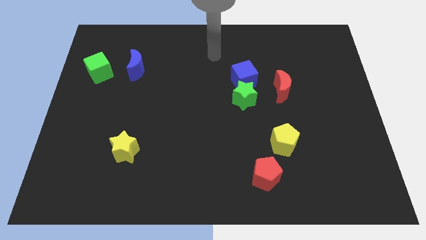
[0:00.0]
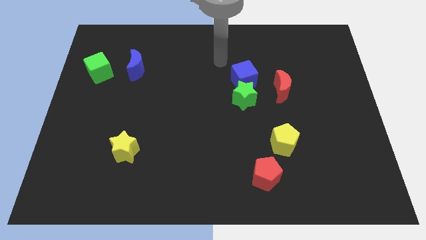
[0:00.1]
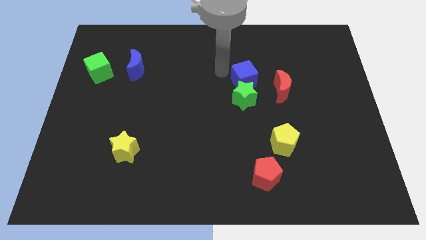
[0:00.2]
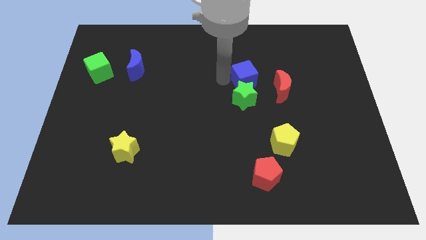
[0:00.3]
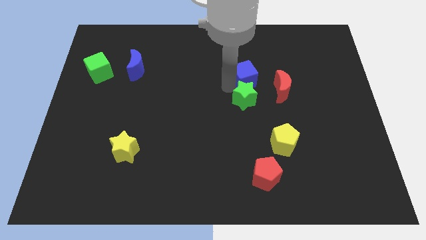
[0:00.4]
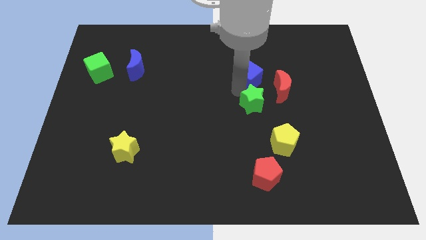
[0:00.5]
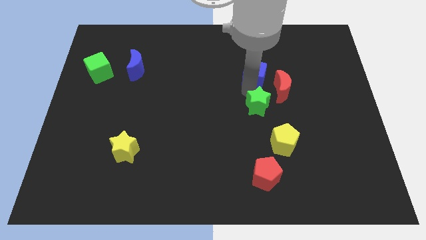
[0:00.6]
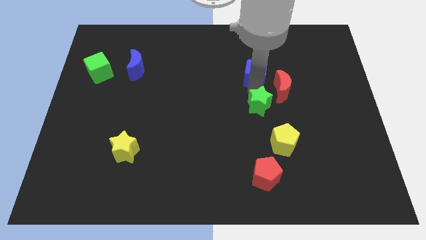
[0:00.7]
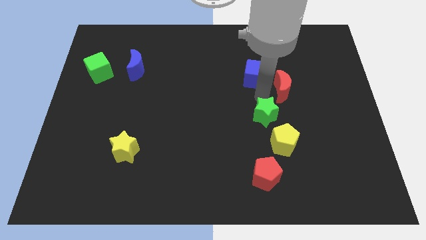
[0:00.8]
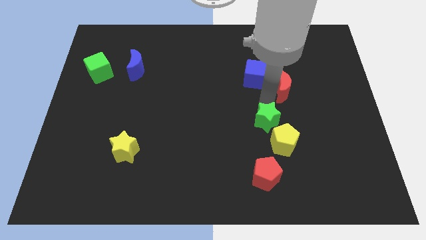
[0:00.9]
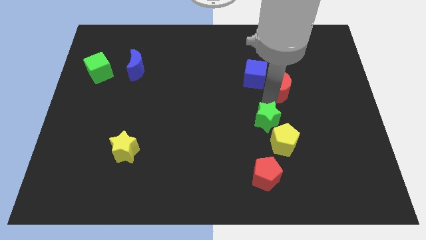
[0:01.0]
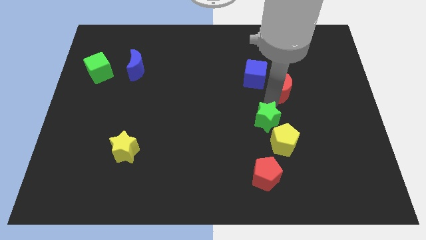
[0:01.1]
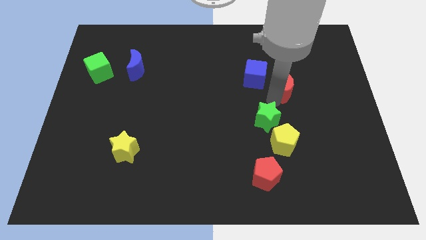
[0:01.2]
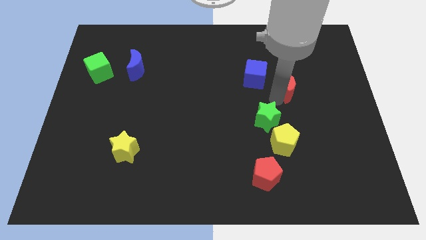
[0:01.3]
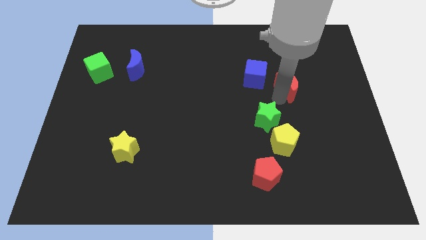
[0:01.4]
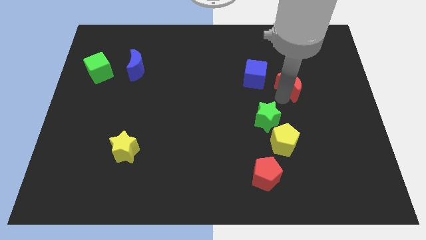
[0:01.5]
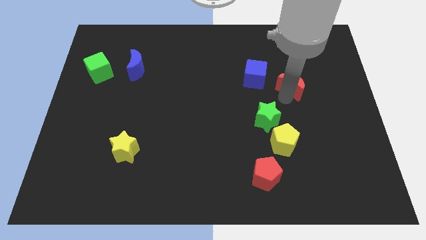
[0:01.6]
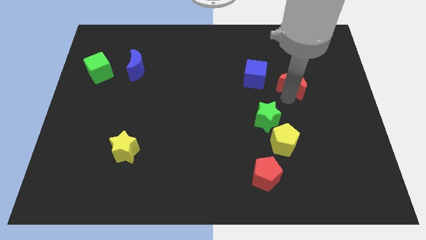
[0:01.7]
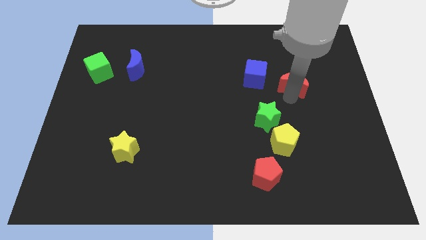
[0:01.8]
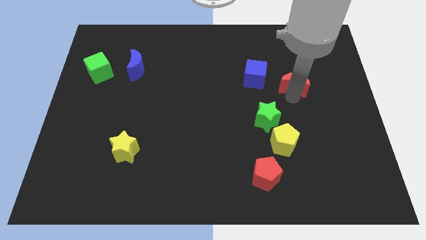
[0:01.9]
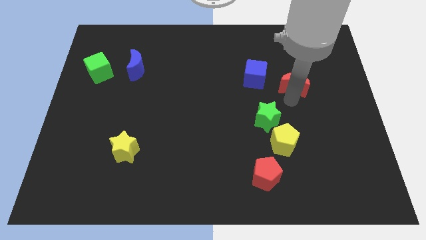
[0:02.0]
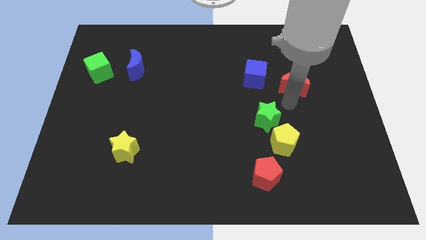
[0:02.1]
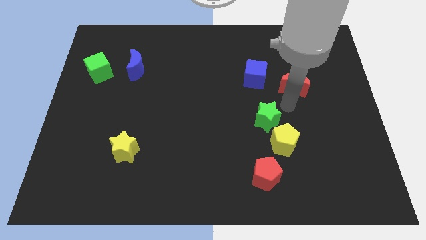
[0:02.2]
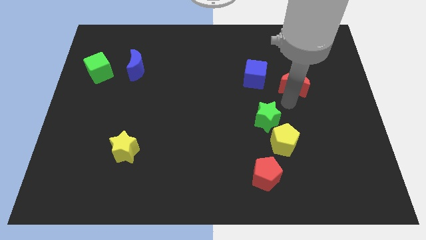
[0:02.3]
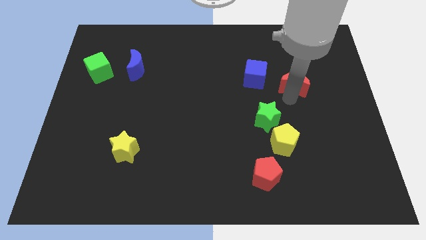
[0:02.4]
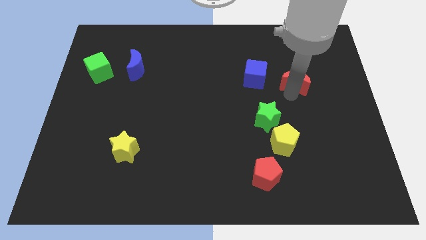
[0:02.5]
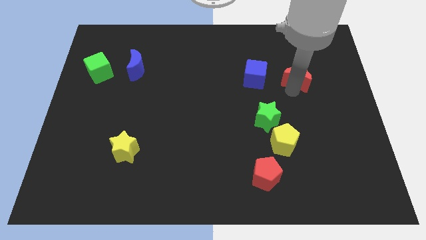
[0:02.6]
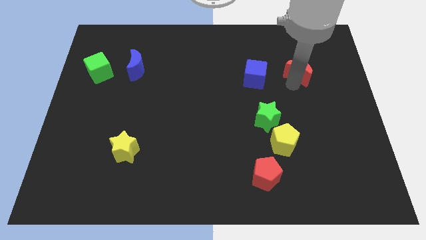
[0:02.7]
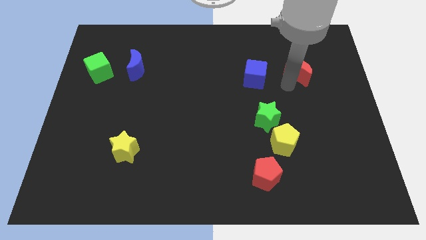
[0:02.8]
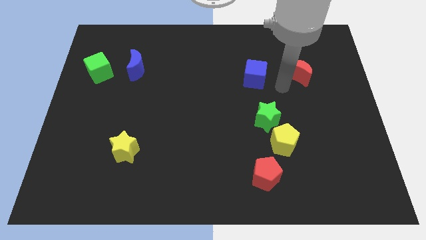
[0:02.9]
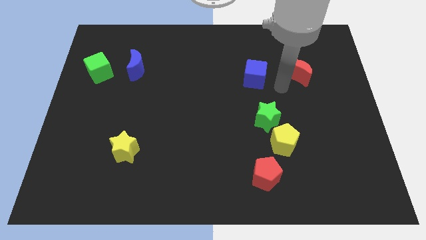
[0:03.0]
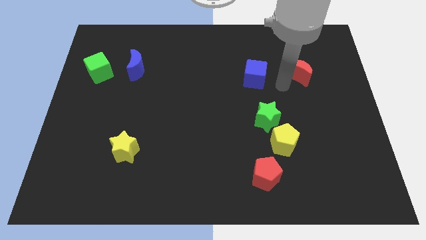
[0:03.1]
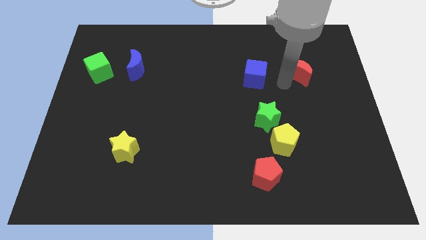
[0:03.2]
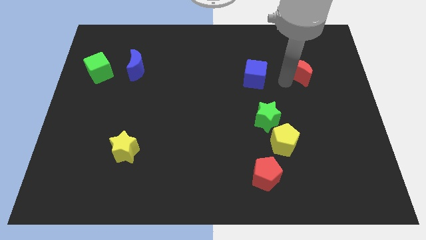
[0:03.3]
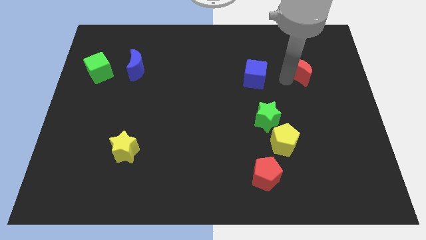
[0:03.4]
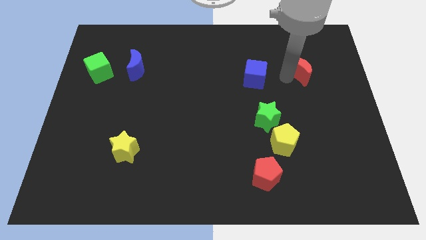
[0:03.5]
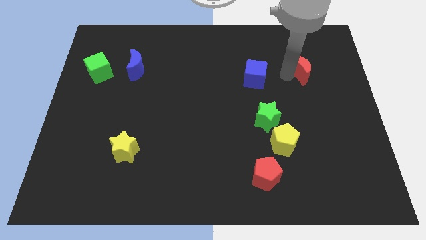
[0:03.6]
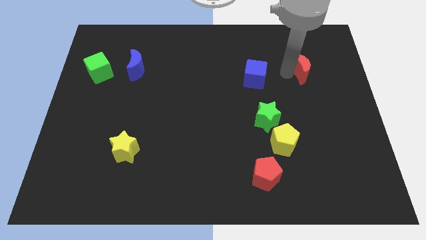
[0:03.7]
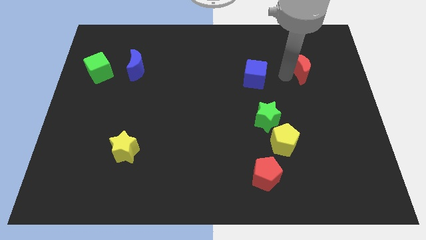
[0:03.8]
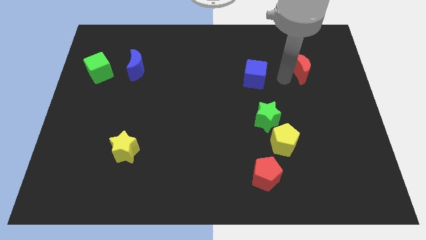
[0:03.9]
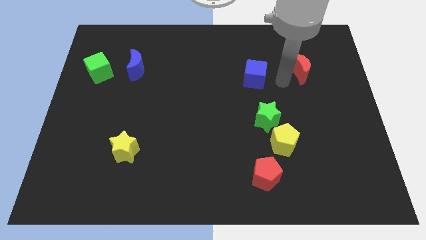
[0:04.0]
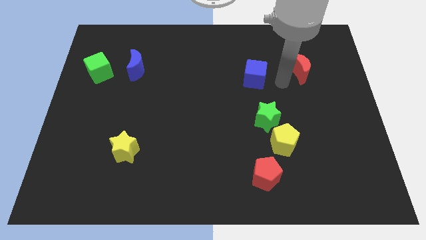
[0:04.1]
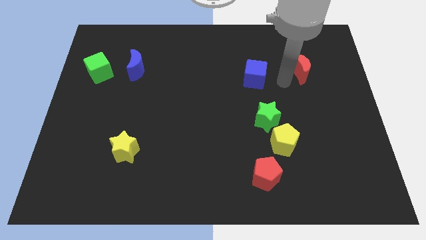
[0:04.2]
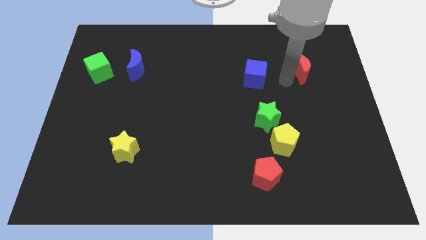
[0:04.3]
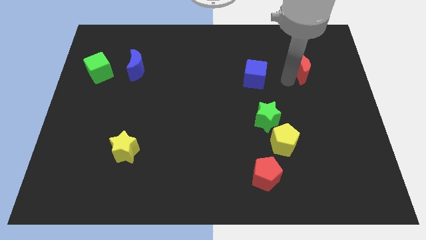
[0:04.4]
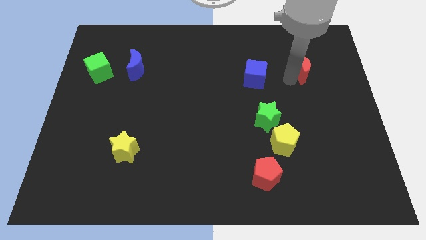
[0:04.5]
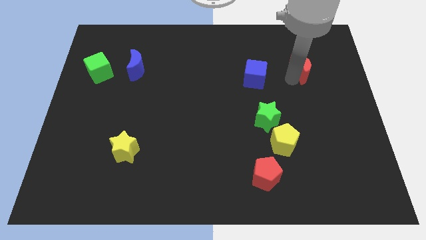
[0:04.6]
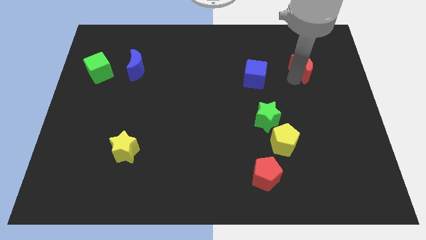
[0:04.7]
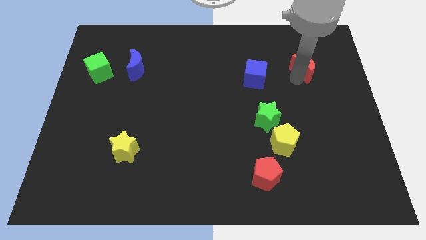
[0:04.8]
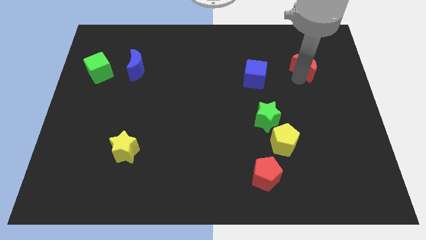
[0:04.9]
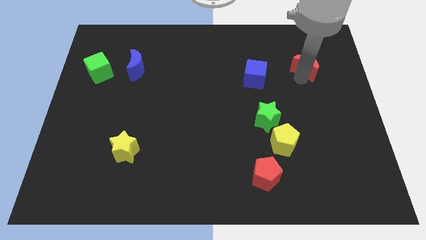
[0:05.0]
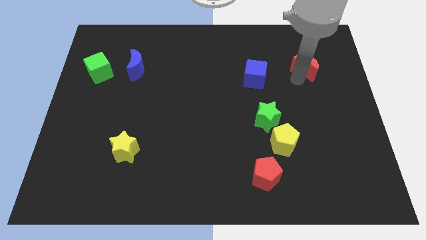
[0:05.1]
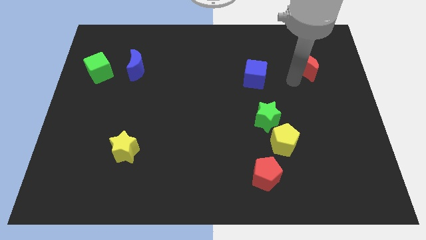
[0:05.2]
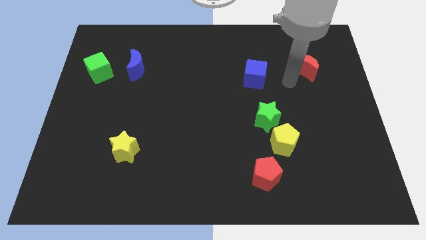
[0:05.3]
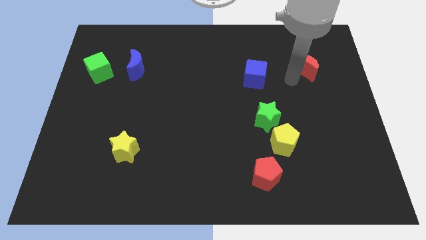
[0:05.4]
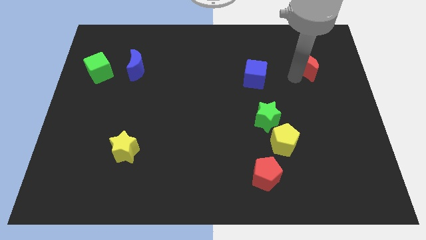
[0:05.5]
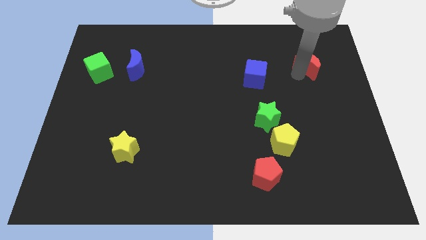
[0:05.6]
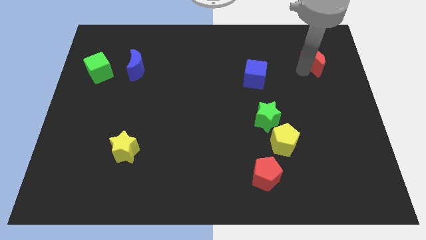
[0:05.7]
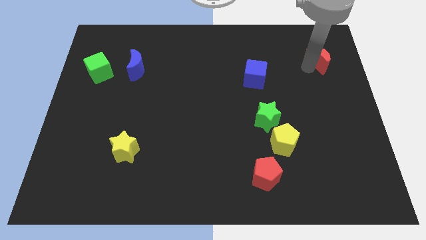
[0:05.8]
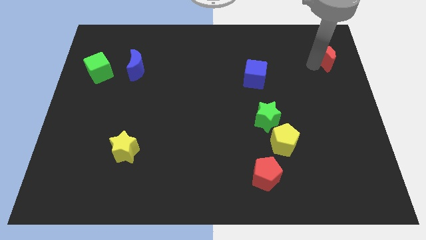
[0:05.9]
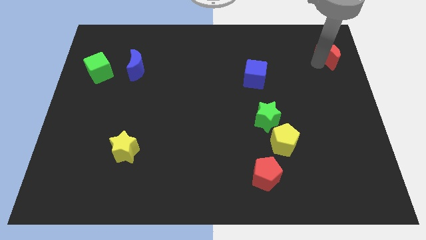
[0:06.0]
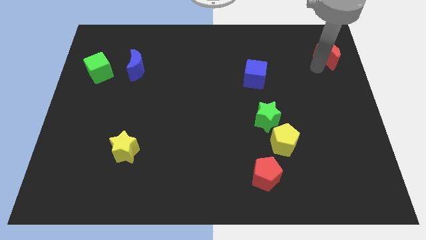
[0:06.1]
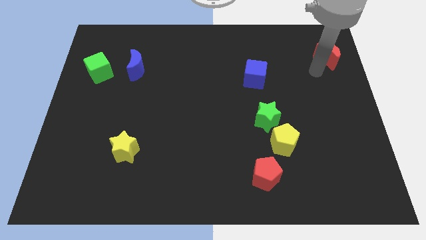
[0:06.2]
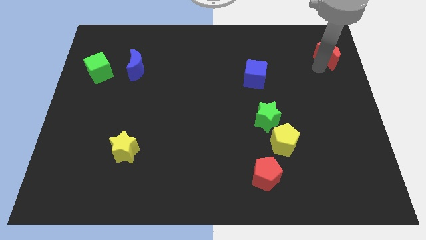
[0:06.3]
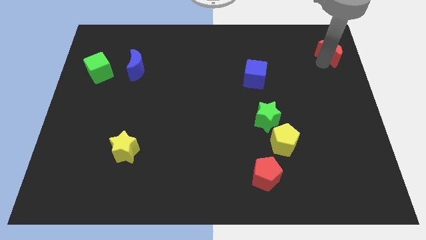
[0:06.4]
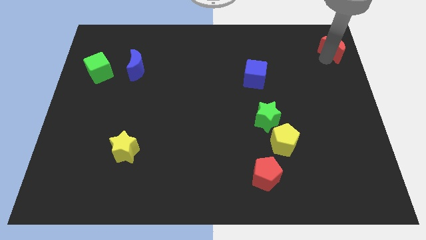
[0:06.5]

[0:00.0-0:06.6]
put the red moon to the top right

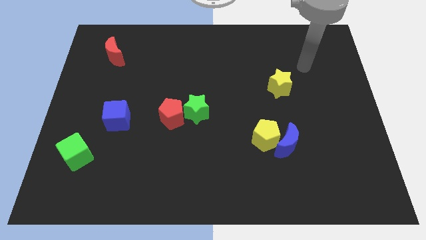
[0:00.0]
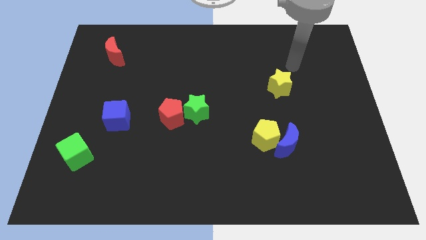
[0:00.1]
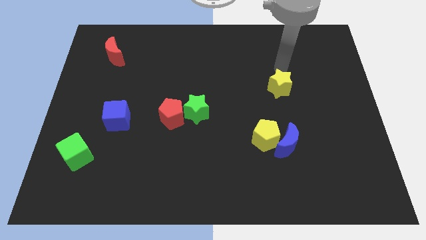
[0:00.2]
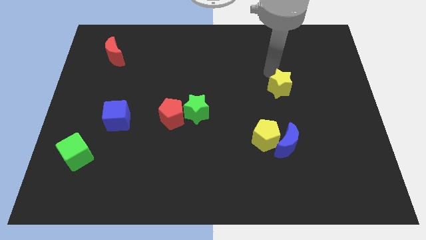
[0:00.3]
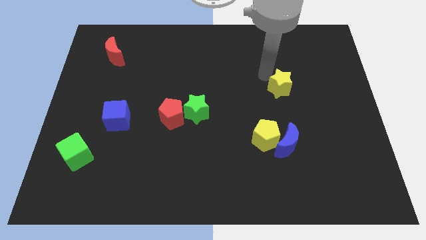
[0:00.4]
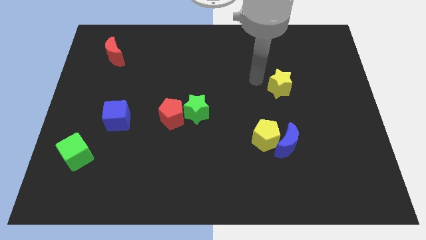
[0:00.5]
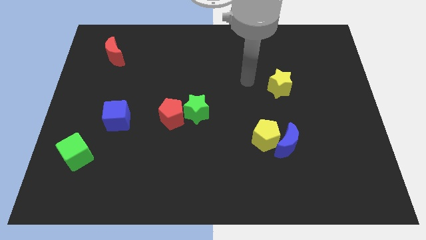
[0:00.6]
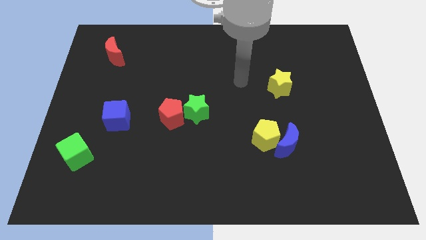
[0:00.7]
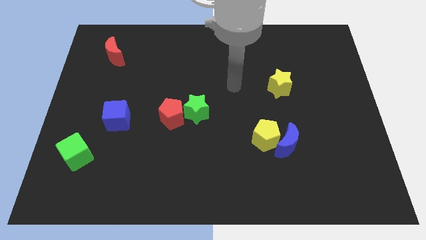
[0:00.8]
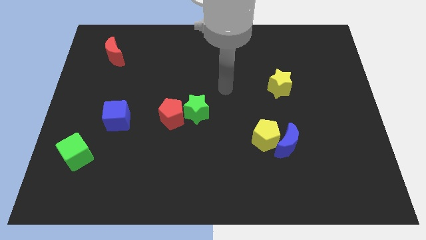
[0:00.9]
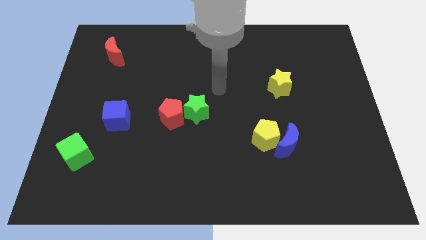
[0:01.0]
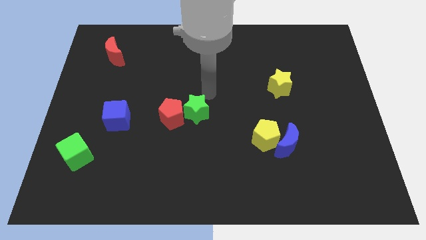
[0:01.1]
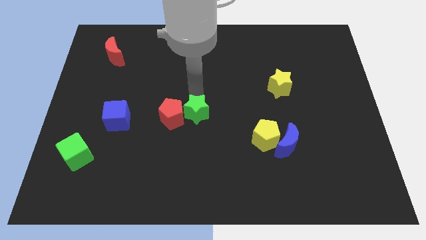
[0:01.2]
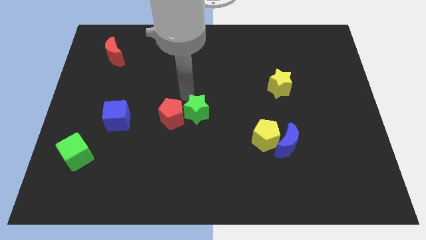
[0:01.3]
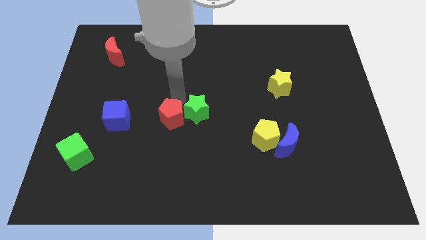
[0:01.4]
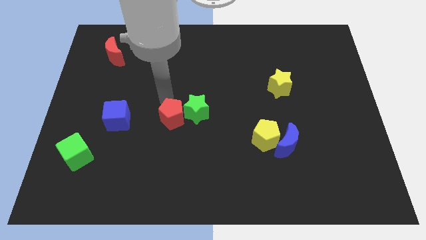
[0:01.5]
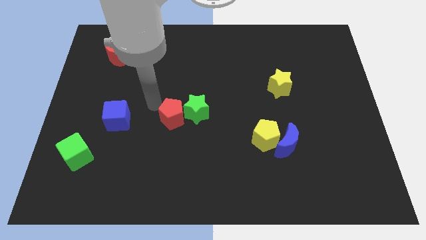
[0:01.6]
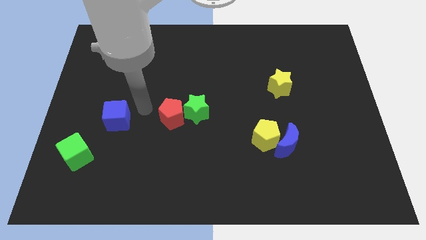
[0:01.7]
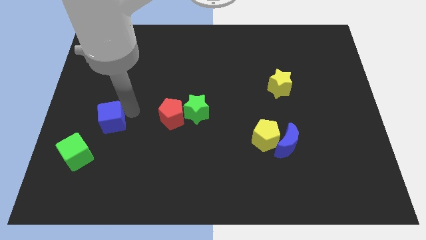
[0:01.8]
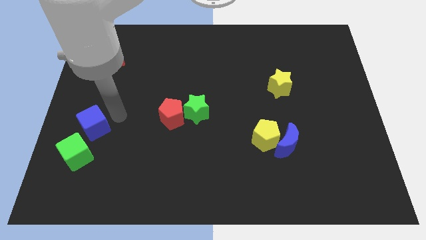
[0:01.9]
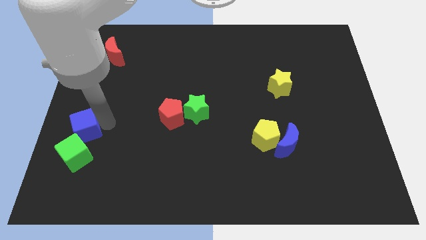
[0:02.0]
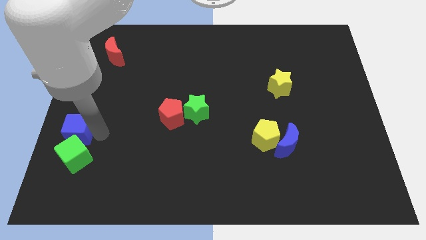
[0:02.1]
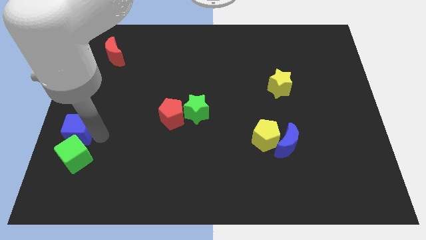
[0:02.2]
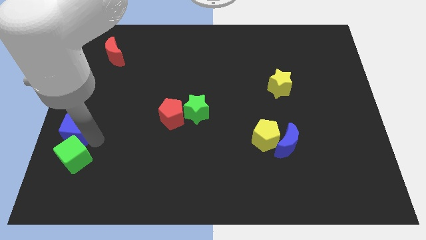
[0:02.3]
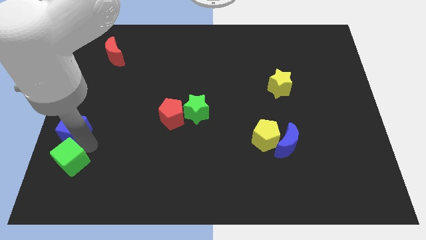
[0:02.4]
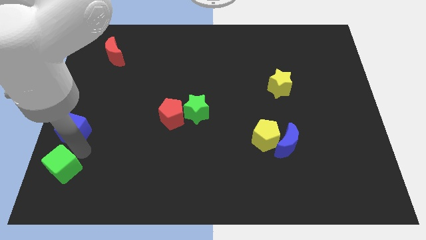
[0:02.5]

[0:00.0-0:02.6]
put the green cube to the bottom left
